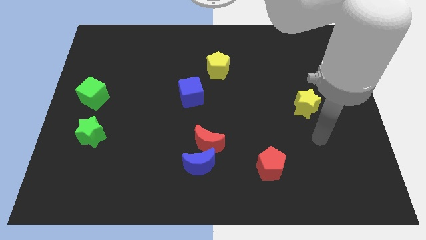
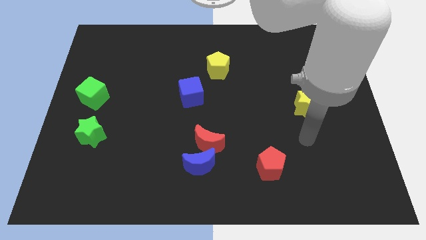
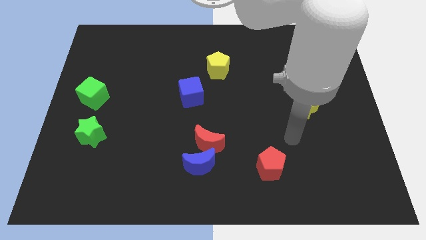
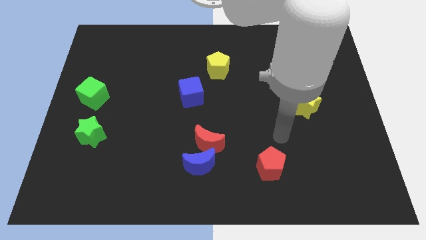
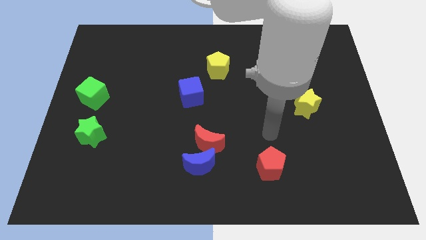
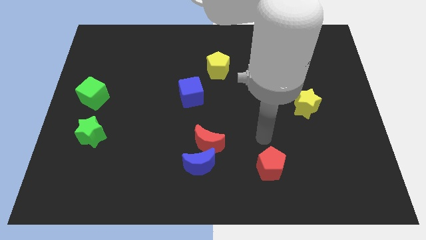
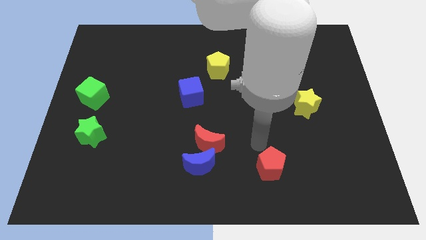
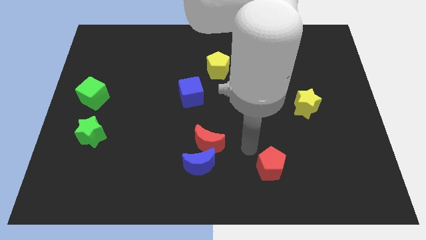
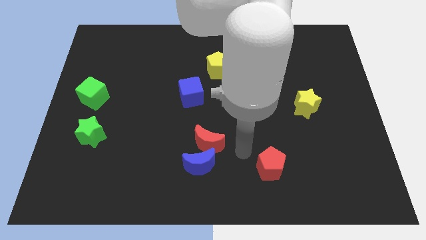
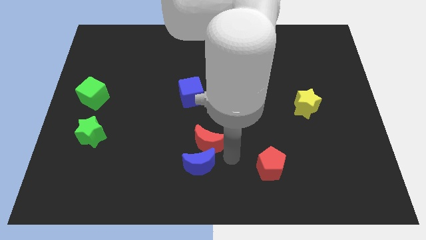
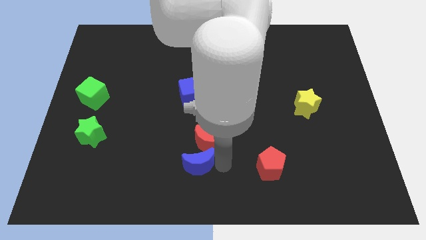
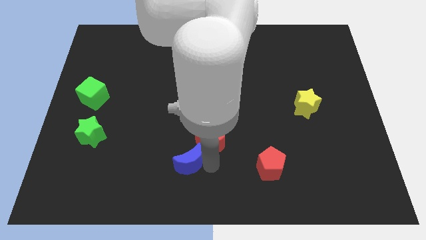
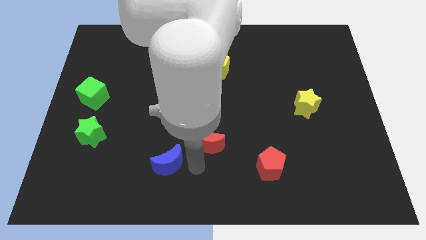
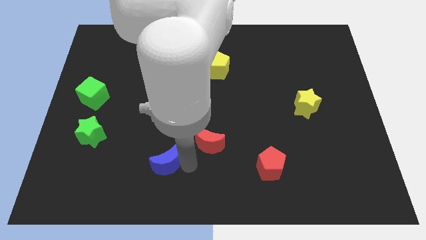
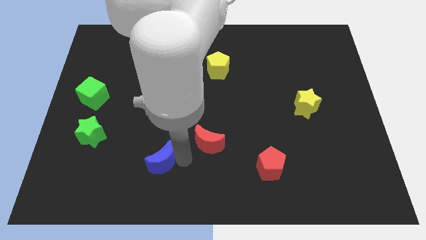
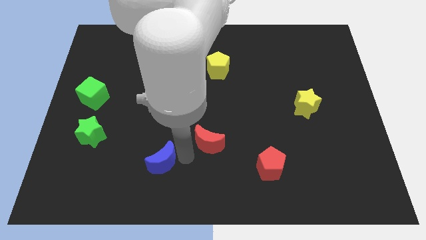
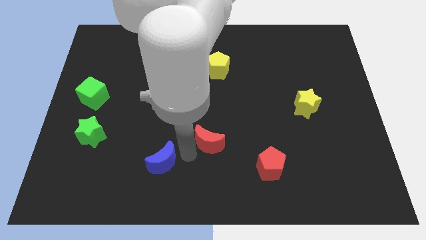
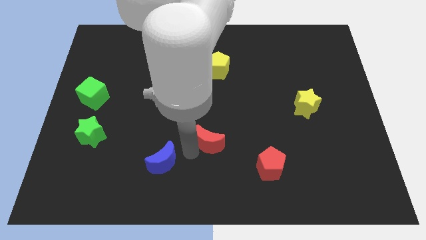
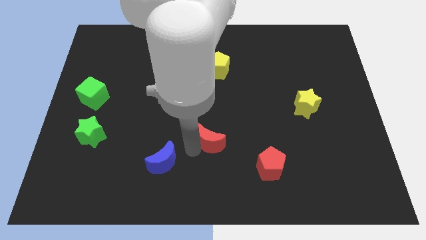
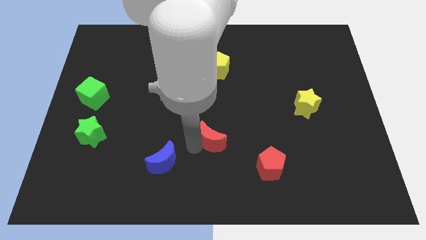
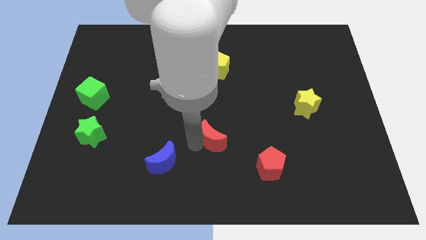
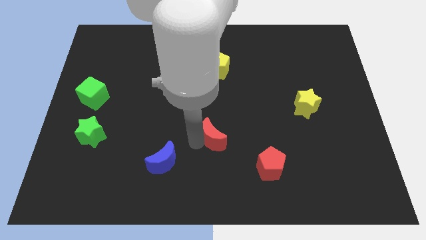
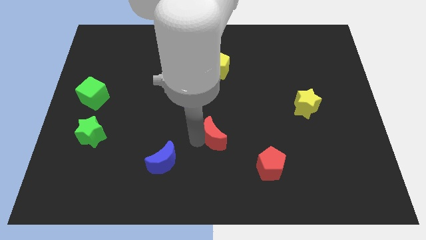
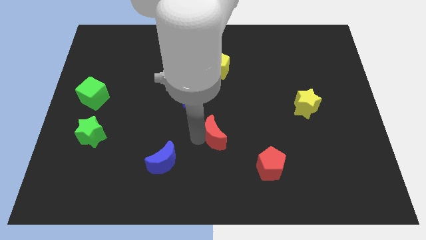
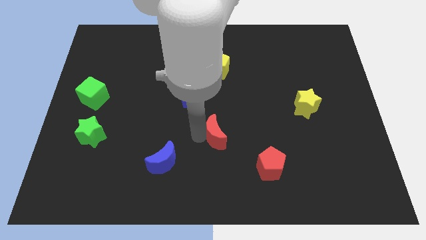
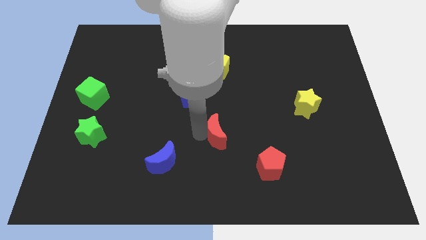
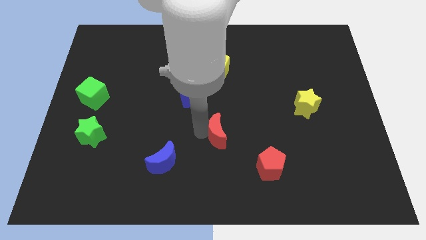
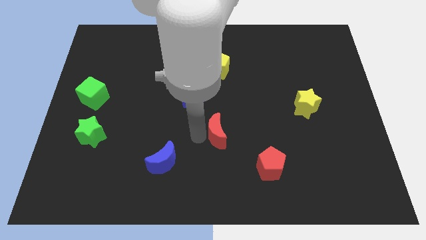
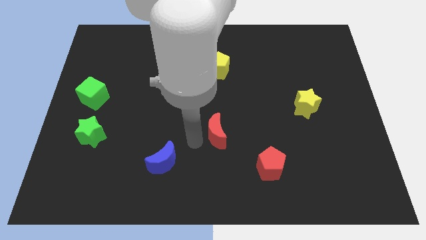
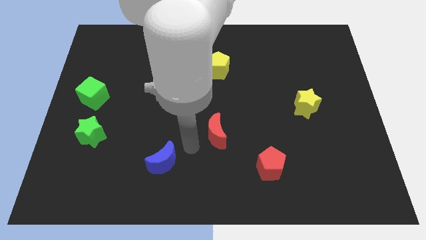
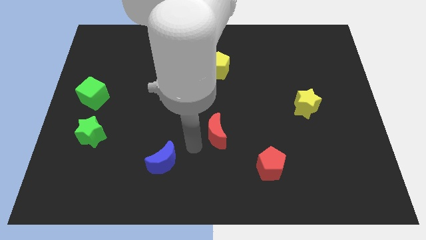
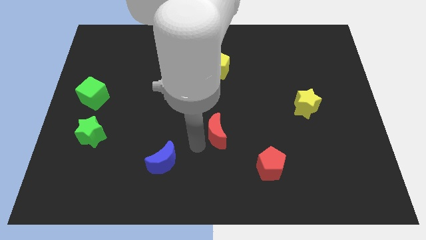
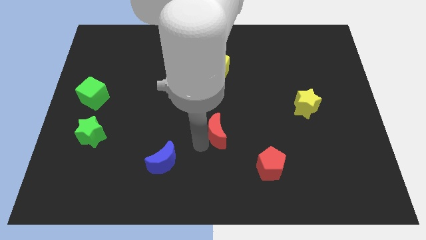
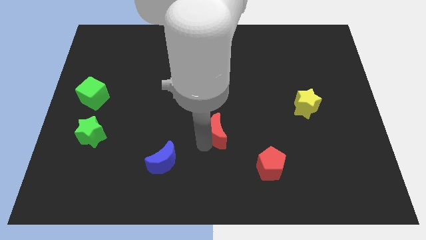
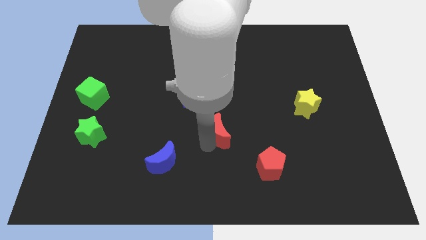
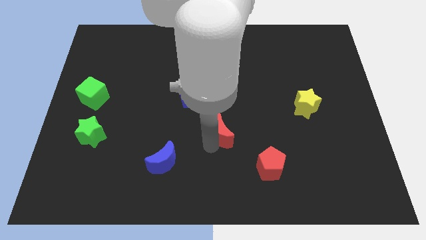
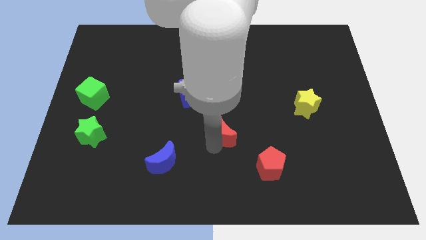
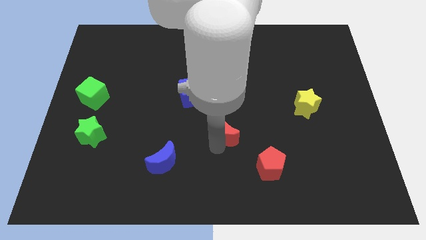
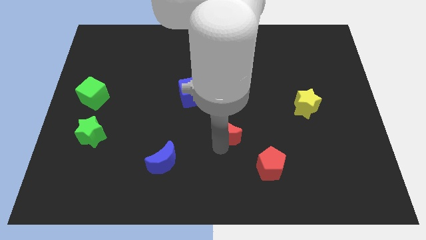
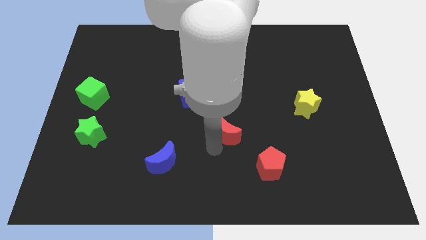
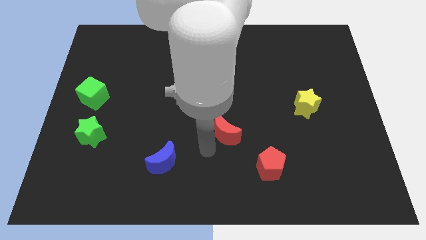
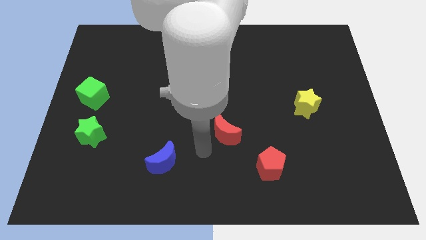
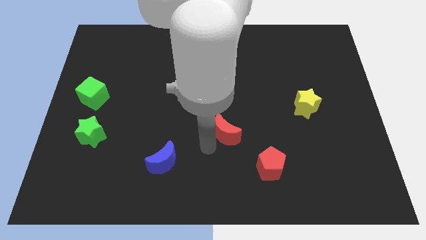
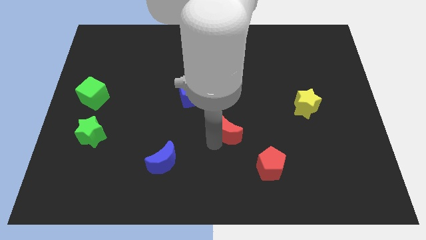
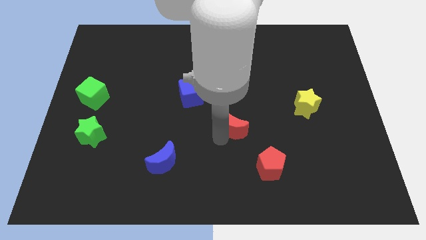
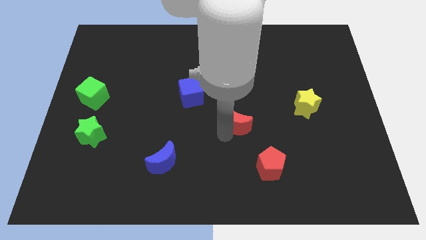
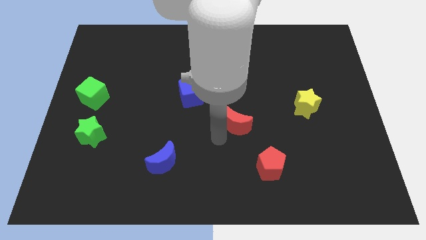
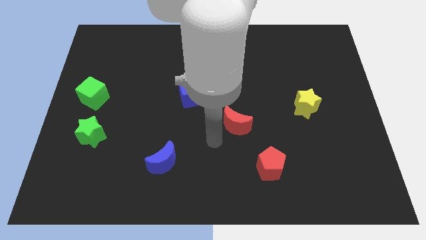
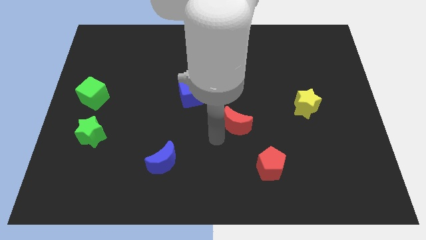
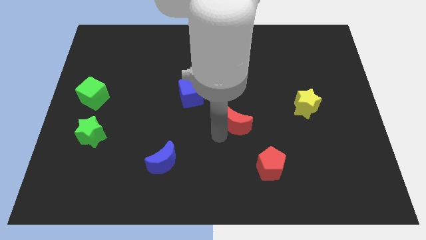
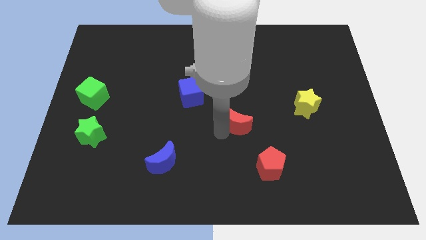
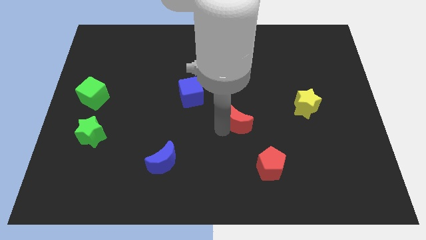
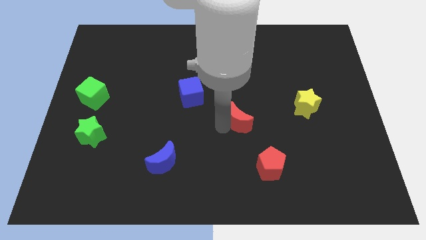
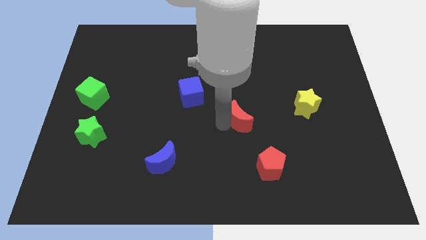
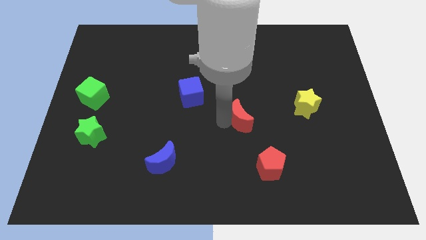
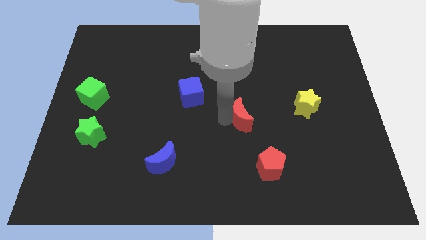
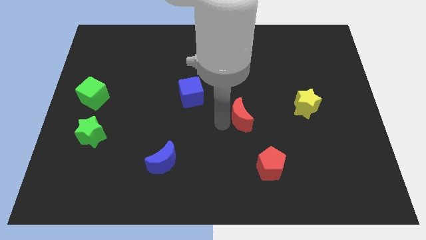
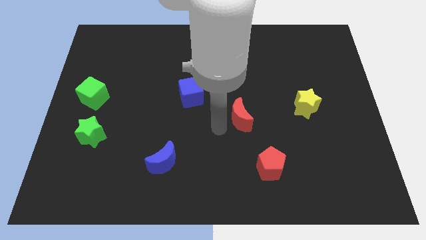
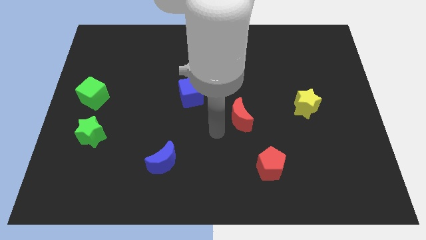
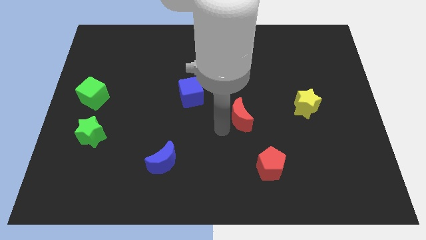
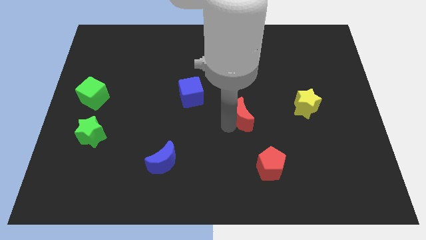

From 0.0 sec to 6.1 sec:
push the red moon just left of the yellow star
